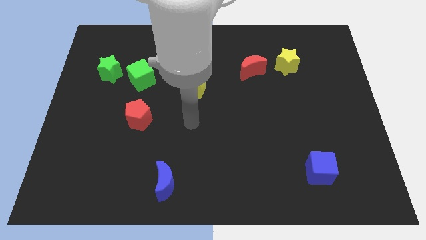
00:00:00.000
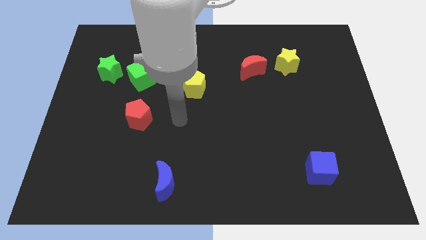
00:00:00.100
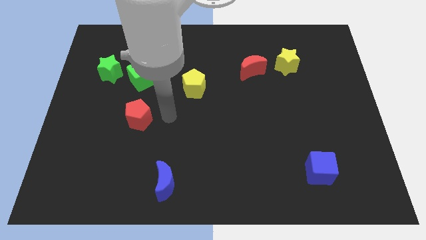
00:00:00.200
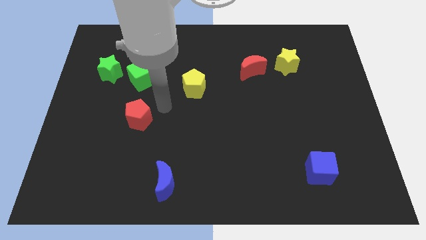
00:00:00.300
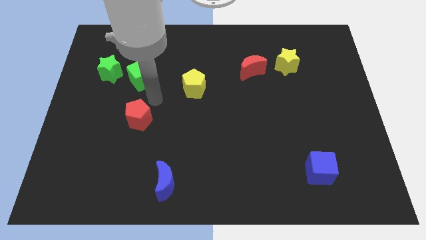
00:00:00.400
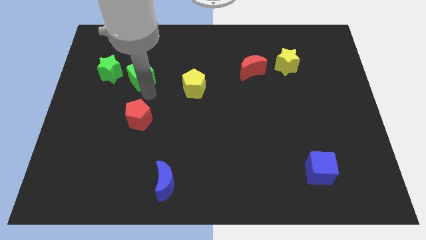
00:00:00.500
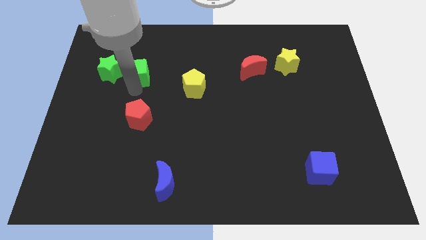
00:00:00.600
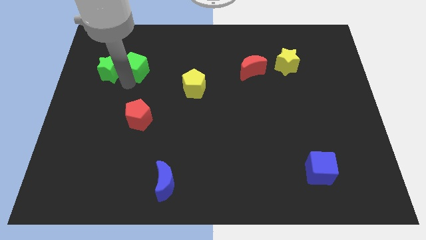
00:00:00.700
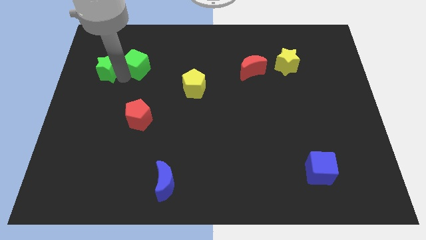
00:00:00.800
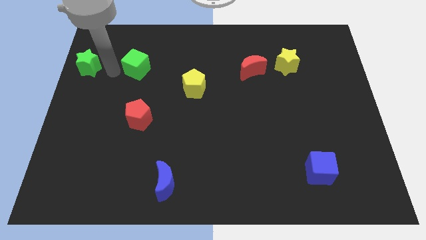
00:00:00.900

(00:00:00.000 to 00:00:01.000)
move the green cube away from the green star

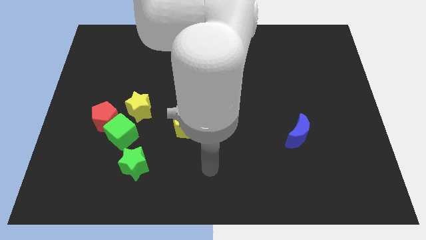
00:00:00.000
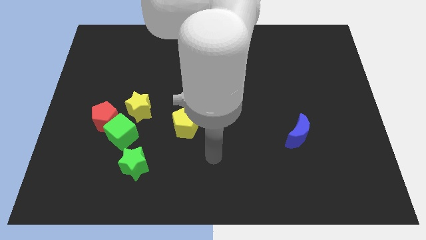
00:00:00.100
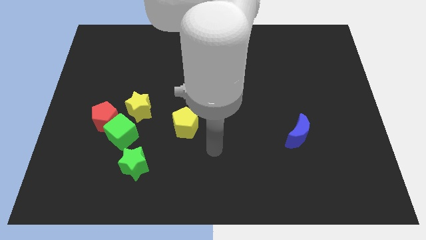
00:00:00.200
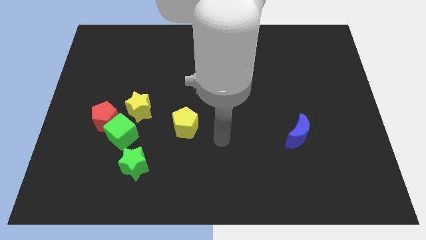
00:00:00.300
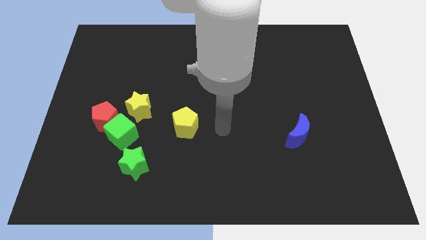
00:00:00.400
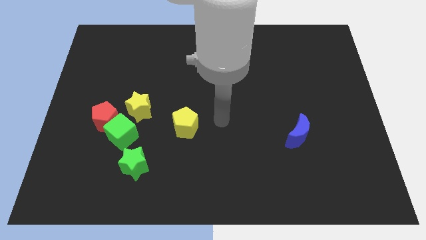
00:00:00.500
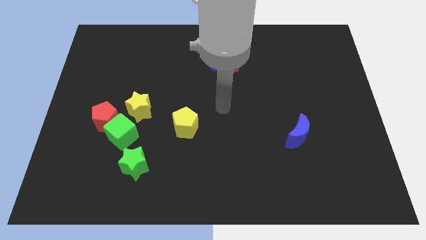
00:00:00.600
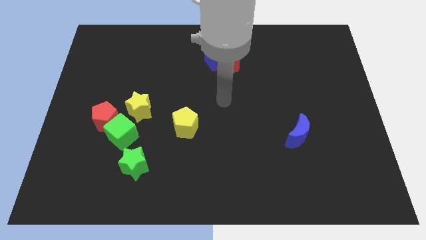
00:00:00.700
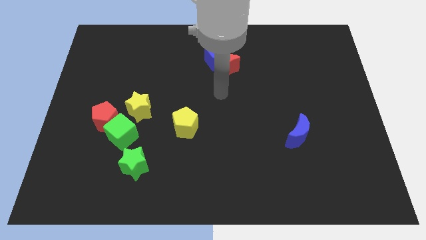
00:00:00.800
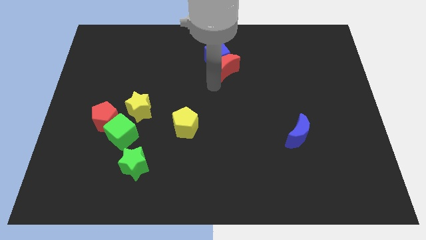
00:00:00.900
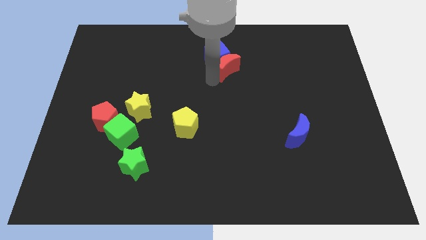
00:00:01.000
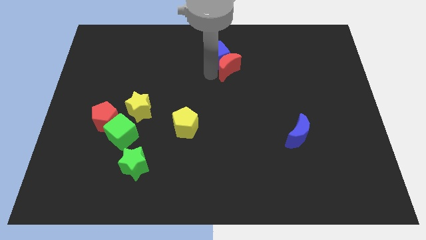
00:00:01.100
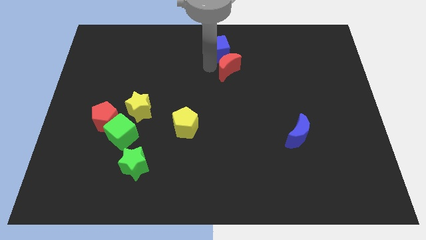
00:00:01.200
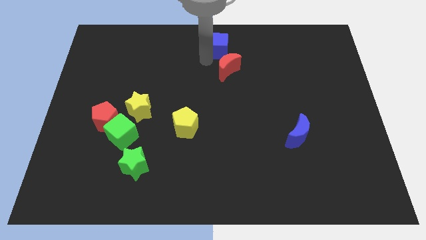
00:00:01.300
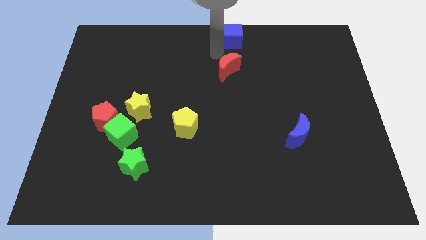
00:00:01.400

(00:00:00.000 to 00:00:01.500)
separate the red moon from the blue cube

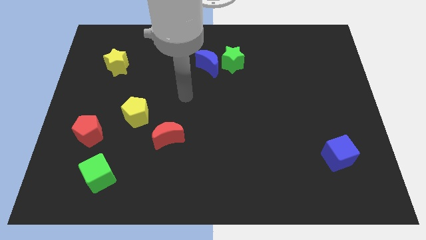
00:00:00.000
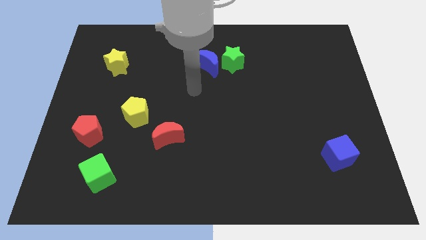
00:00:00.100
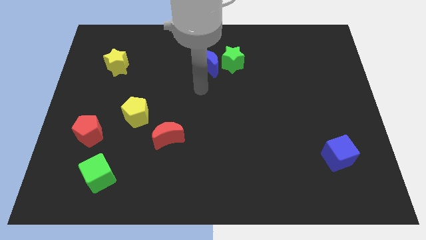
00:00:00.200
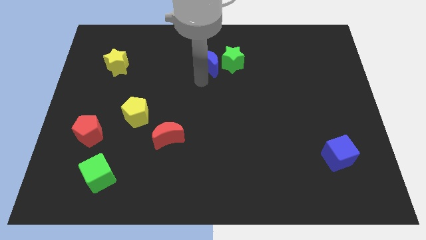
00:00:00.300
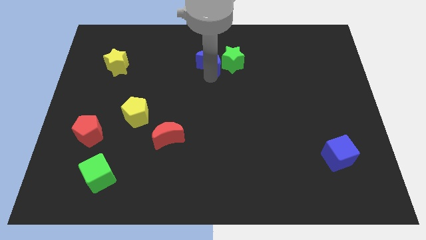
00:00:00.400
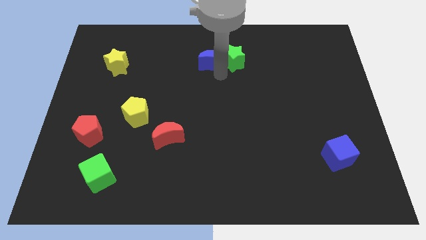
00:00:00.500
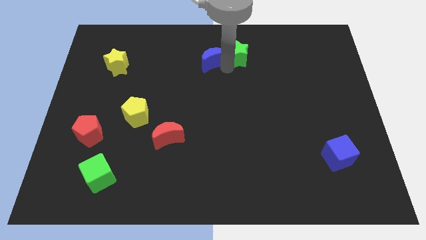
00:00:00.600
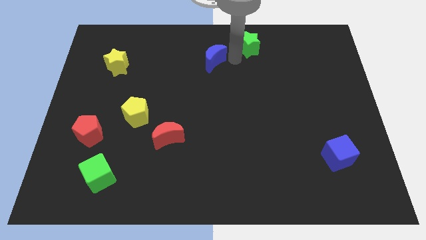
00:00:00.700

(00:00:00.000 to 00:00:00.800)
move the blue moon away from the green star

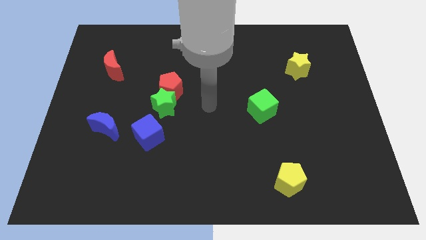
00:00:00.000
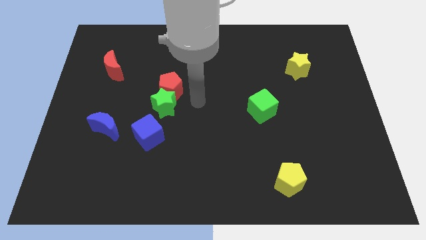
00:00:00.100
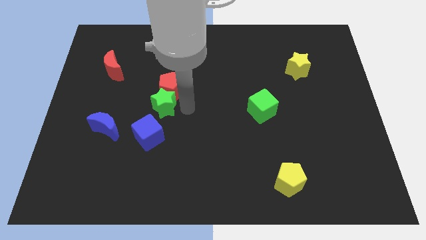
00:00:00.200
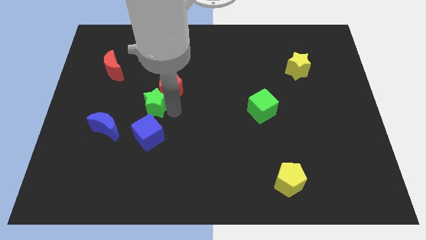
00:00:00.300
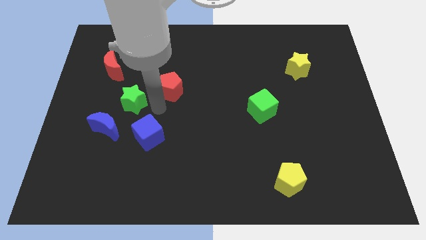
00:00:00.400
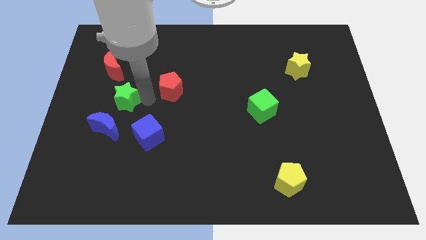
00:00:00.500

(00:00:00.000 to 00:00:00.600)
separate the red pentagon from the green star

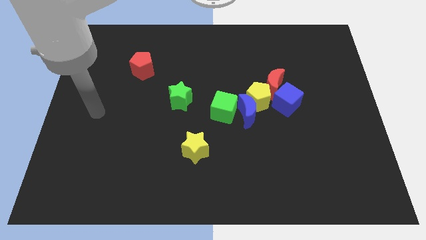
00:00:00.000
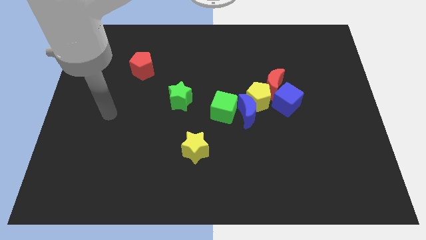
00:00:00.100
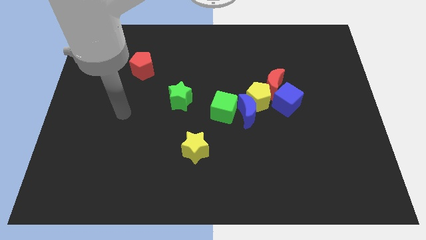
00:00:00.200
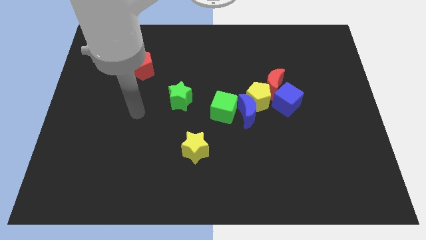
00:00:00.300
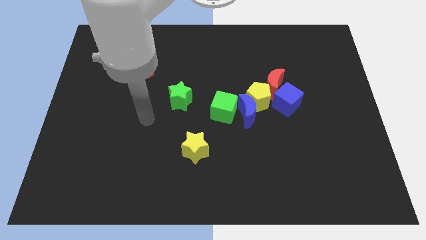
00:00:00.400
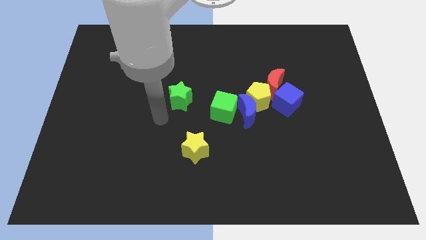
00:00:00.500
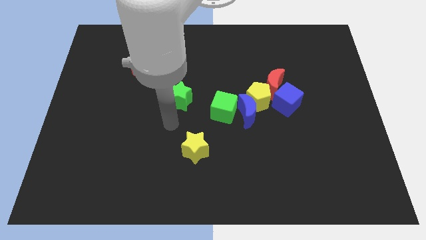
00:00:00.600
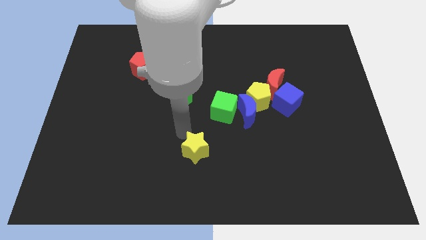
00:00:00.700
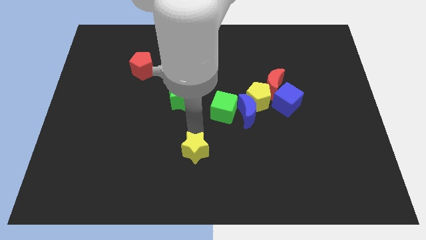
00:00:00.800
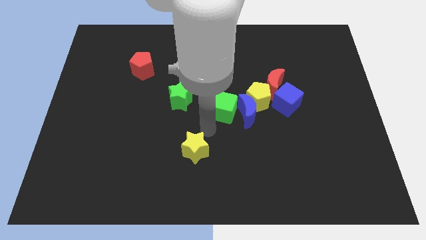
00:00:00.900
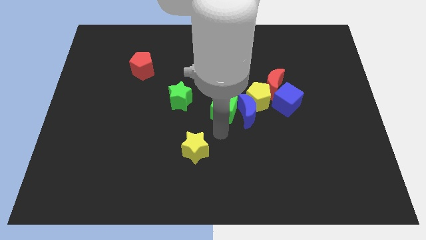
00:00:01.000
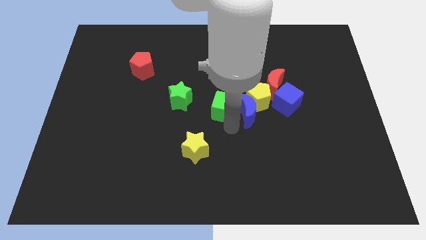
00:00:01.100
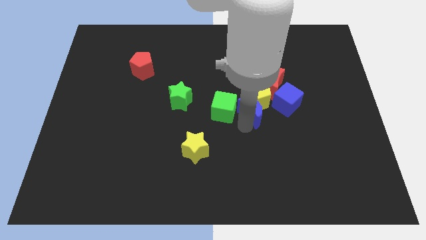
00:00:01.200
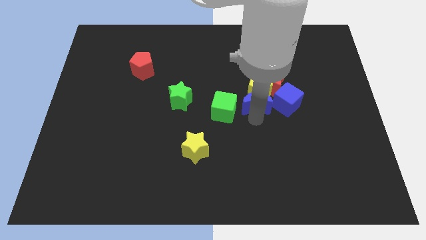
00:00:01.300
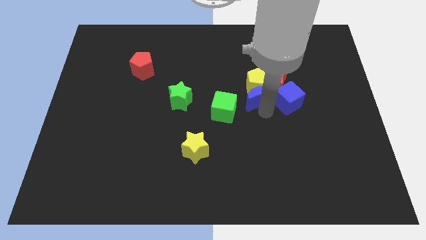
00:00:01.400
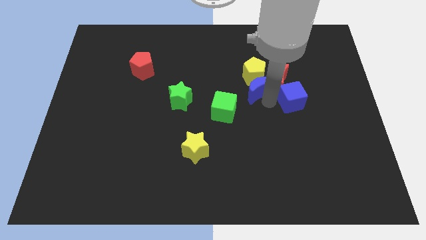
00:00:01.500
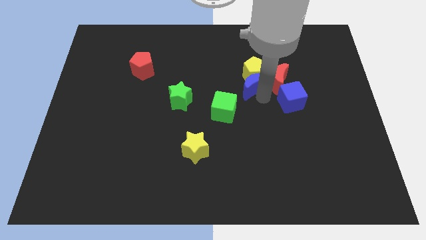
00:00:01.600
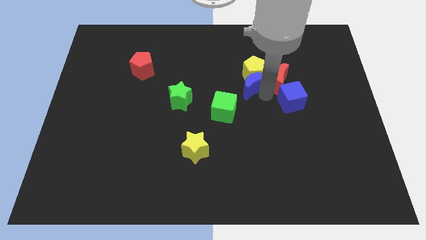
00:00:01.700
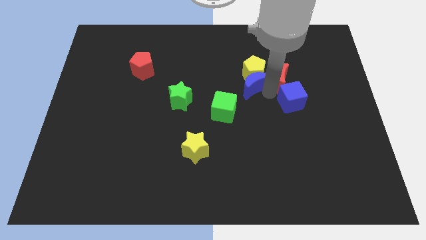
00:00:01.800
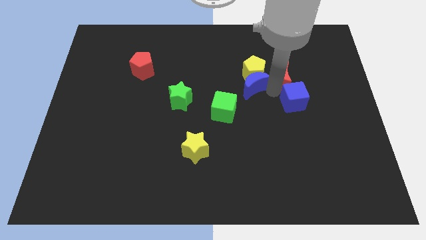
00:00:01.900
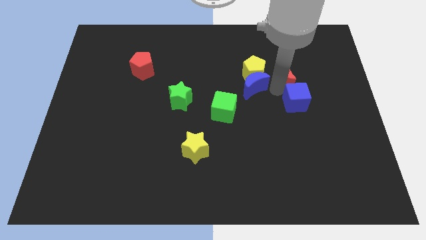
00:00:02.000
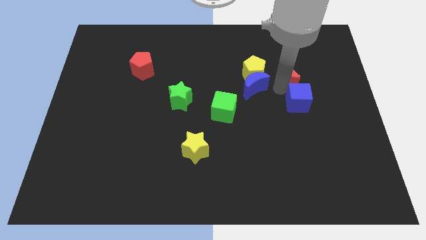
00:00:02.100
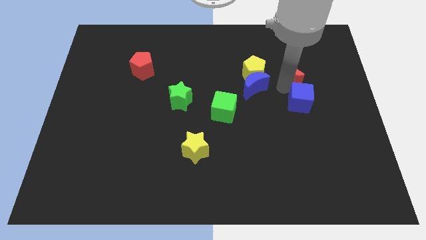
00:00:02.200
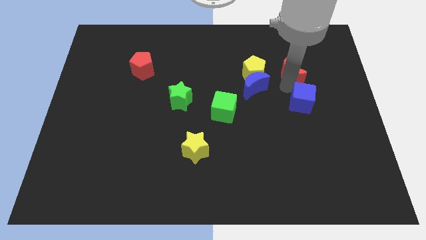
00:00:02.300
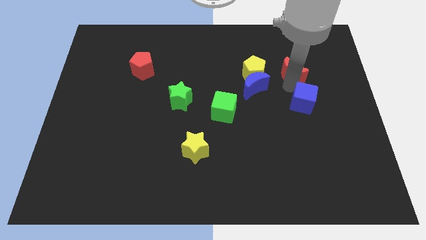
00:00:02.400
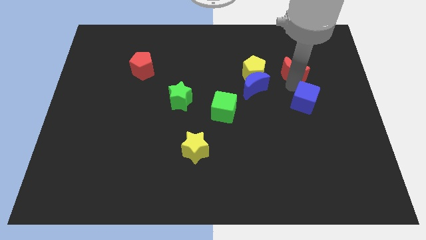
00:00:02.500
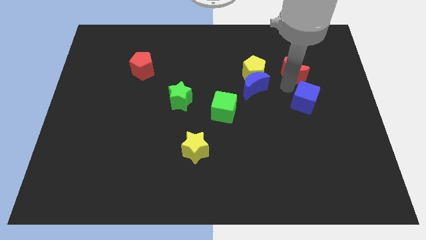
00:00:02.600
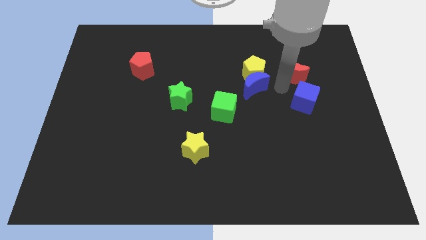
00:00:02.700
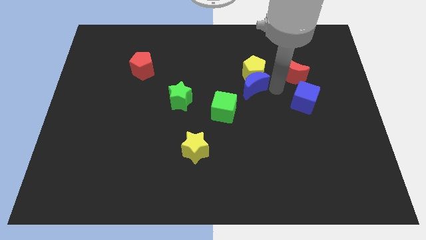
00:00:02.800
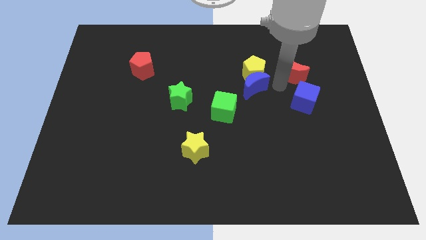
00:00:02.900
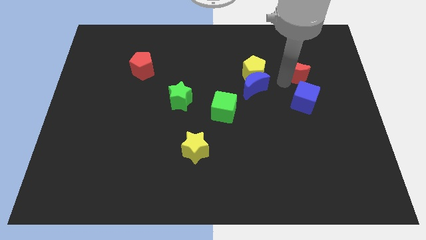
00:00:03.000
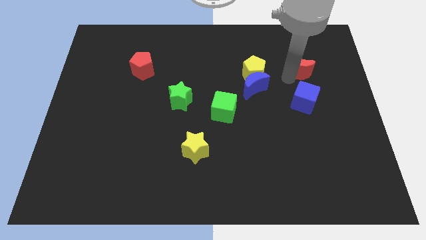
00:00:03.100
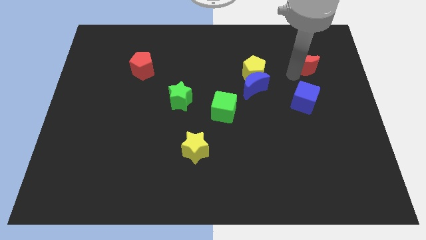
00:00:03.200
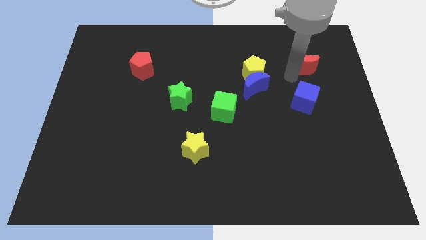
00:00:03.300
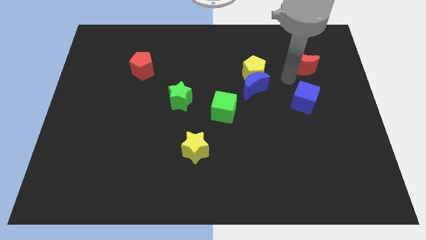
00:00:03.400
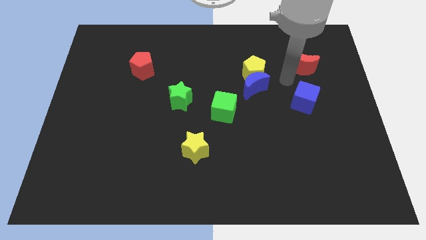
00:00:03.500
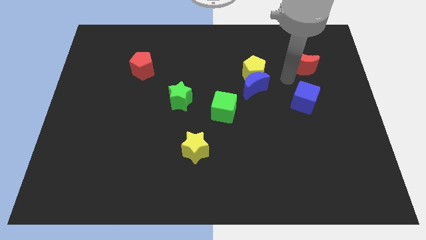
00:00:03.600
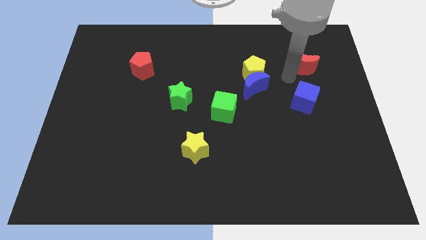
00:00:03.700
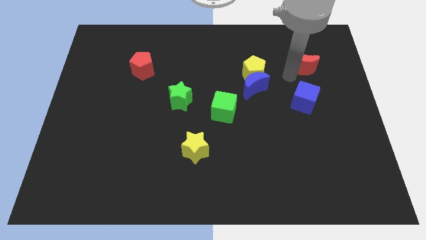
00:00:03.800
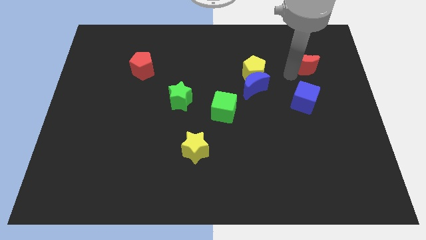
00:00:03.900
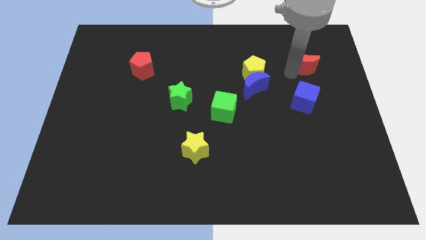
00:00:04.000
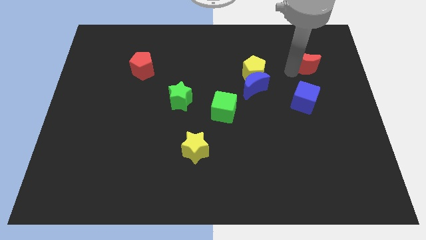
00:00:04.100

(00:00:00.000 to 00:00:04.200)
pull the red moon apart from the blue cube and yellow pentagon

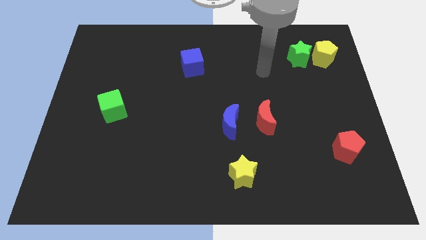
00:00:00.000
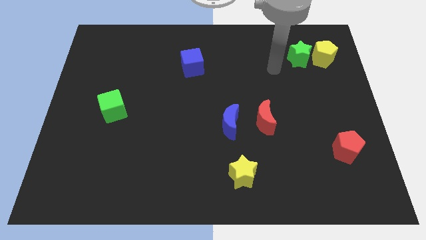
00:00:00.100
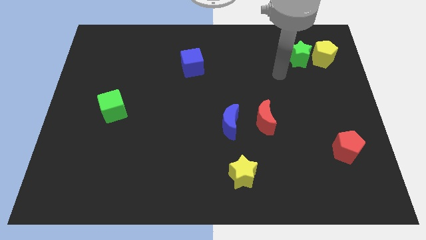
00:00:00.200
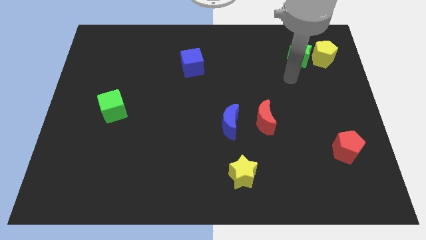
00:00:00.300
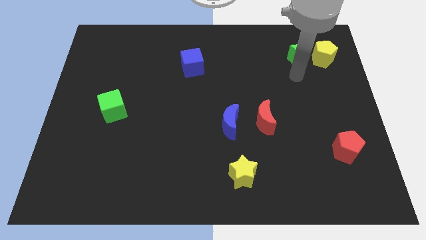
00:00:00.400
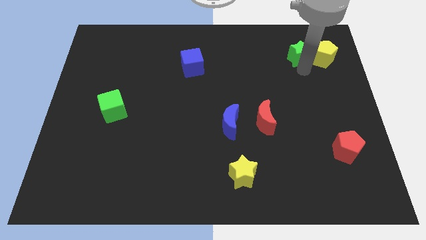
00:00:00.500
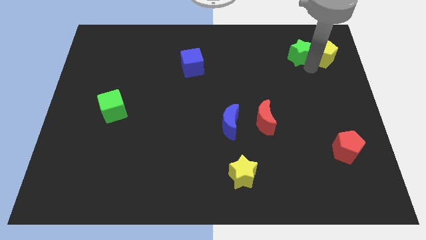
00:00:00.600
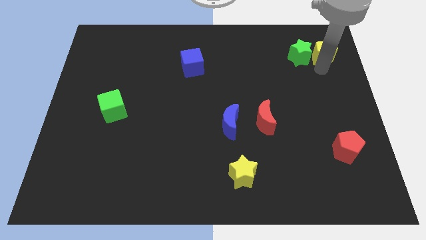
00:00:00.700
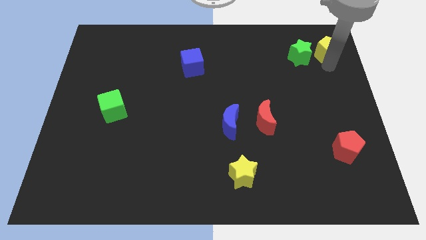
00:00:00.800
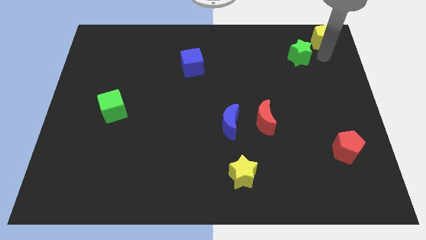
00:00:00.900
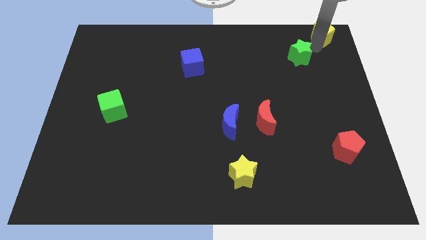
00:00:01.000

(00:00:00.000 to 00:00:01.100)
separate the green star from the yellow pentagon
